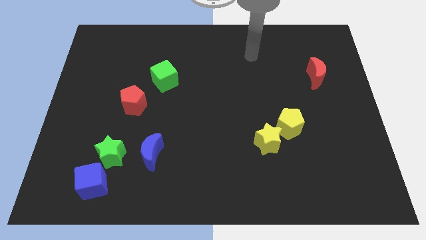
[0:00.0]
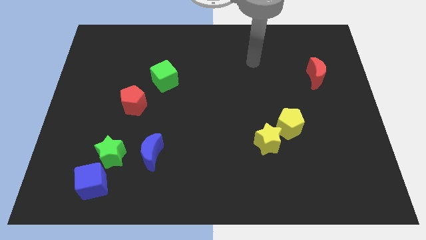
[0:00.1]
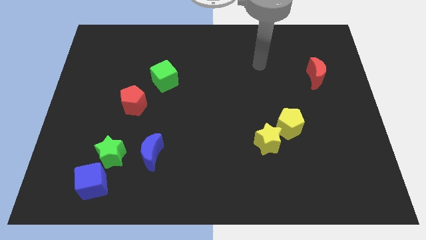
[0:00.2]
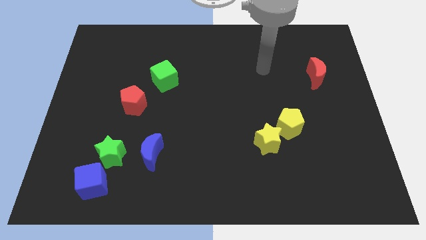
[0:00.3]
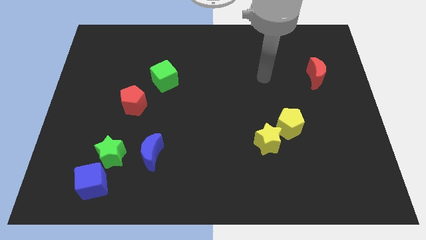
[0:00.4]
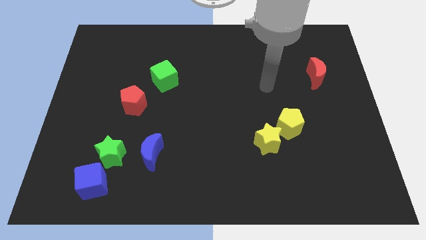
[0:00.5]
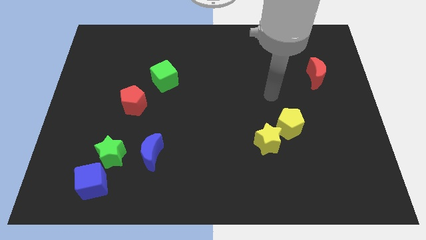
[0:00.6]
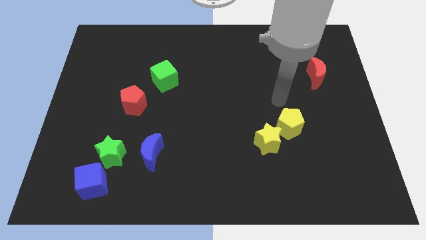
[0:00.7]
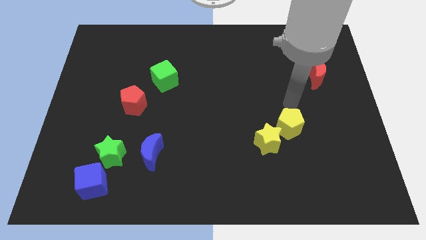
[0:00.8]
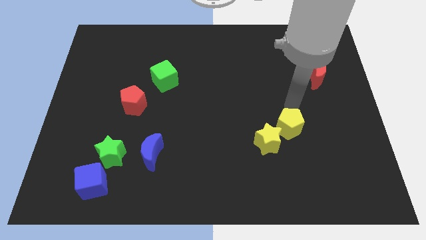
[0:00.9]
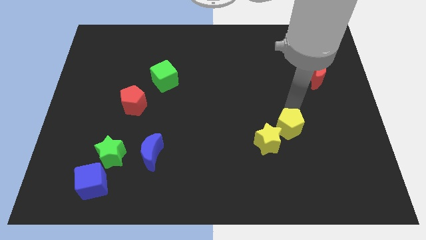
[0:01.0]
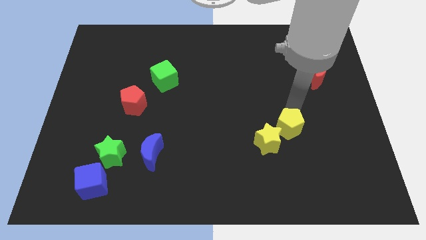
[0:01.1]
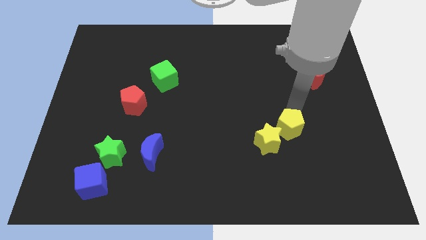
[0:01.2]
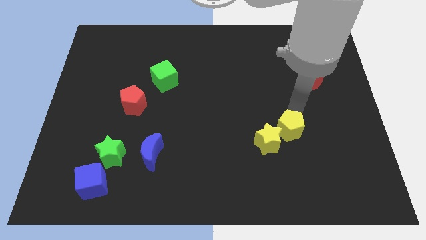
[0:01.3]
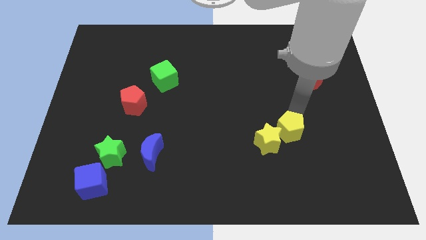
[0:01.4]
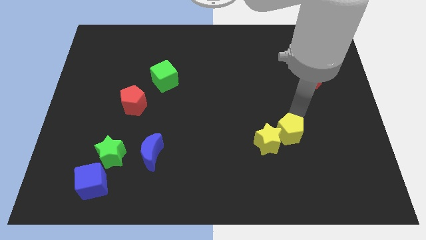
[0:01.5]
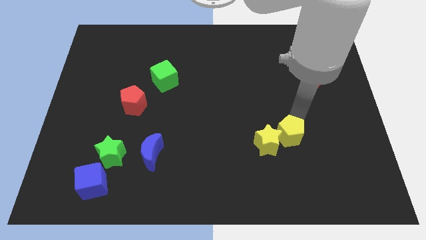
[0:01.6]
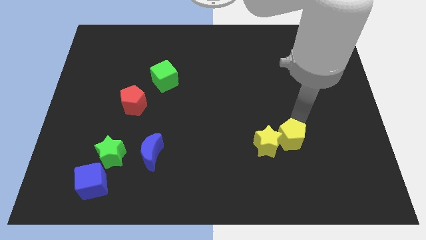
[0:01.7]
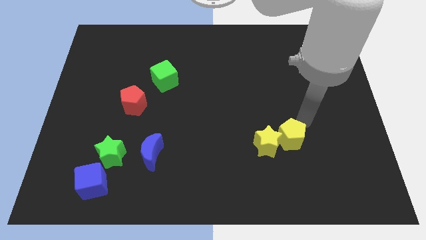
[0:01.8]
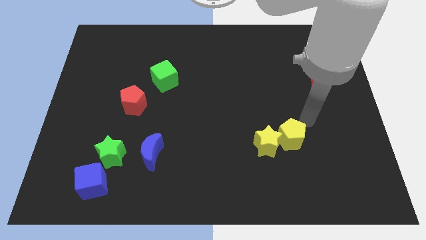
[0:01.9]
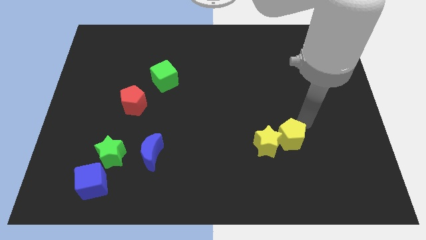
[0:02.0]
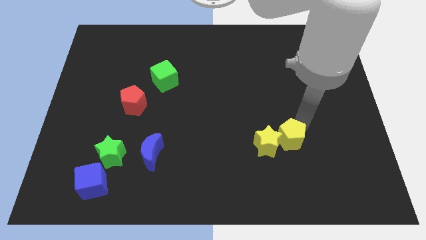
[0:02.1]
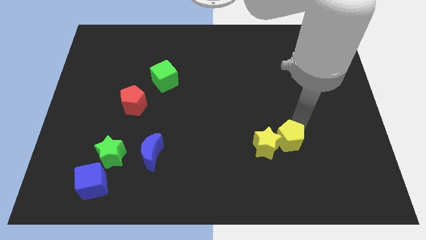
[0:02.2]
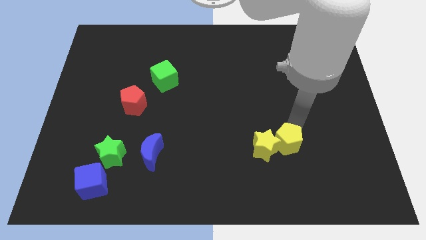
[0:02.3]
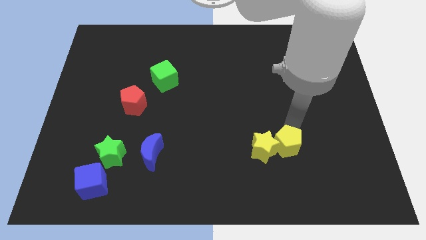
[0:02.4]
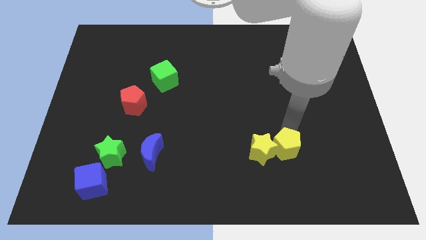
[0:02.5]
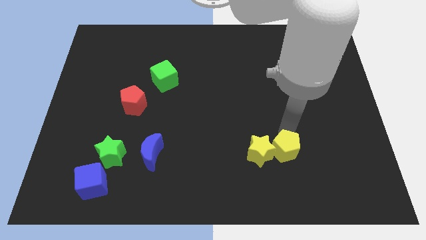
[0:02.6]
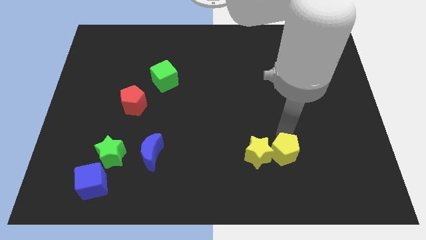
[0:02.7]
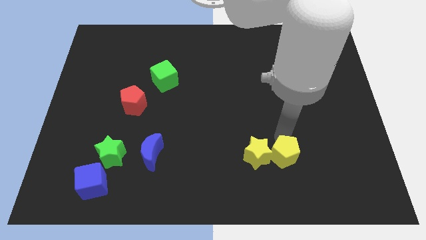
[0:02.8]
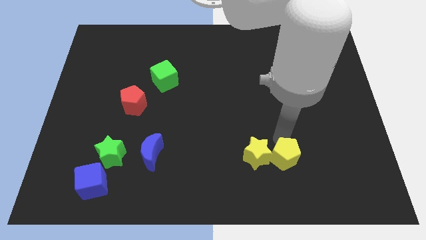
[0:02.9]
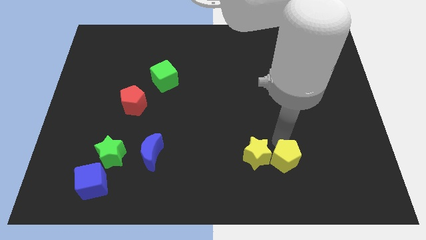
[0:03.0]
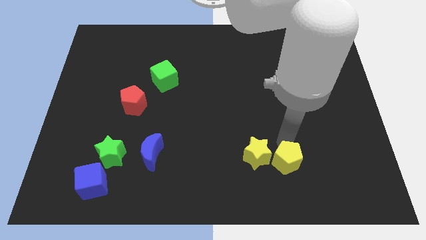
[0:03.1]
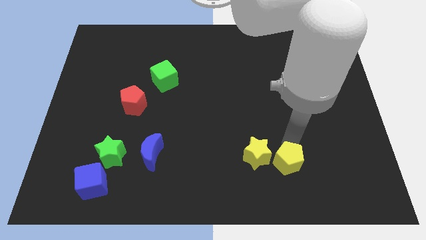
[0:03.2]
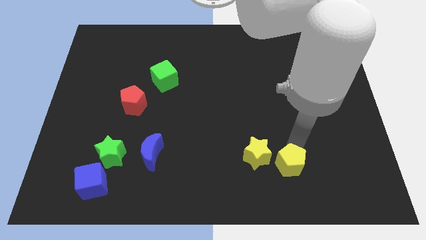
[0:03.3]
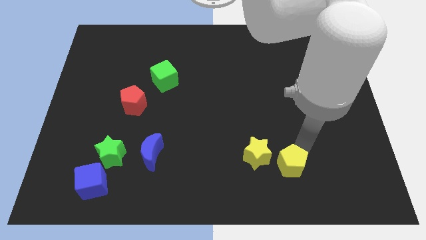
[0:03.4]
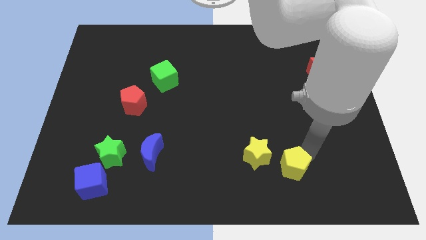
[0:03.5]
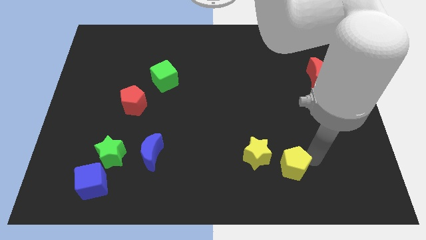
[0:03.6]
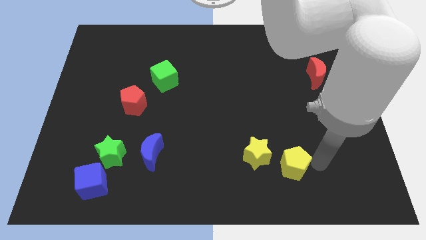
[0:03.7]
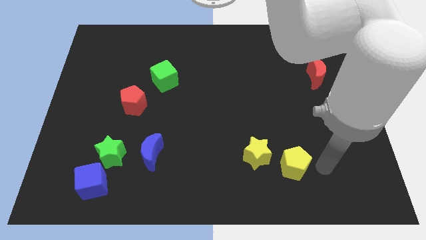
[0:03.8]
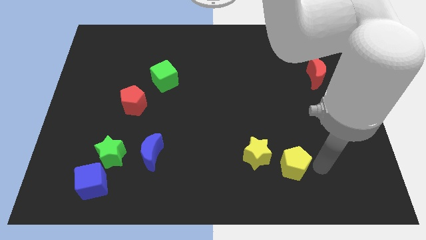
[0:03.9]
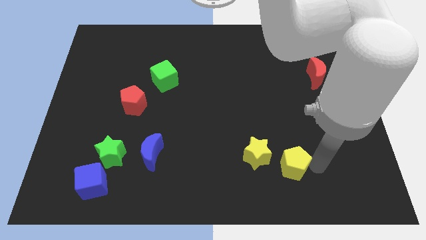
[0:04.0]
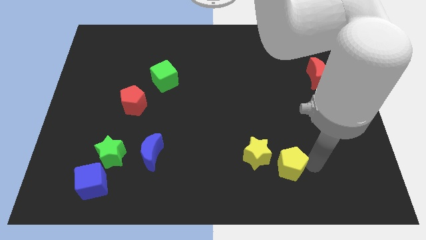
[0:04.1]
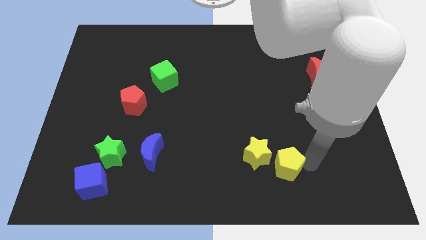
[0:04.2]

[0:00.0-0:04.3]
push the yellow pentagon slightly down and to the left

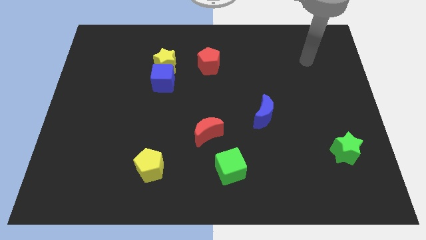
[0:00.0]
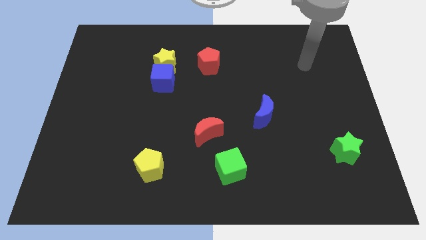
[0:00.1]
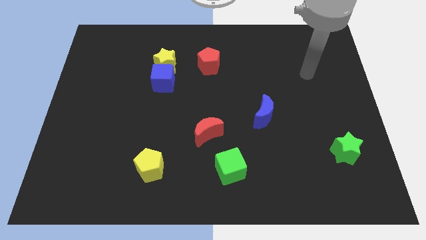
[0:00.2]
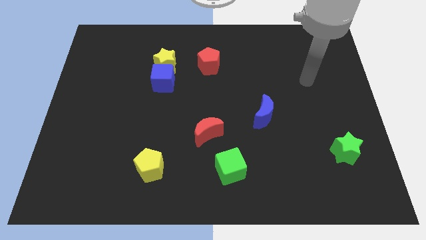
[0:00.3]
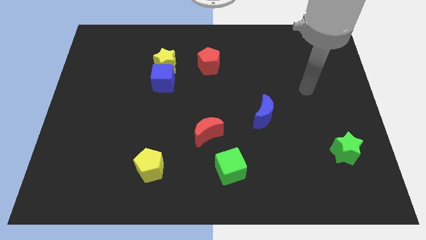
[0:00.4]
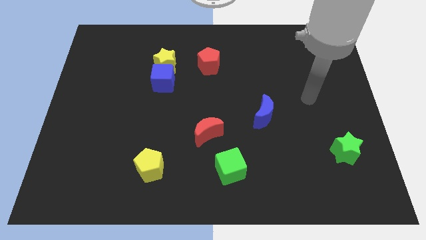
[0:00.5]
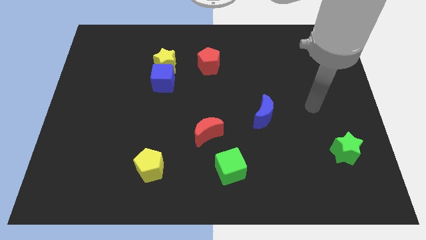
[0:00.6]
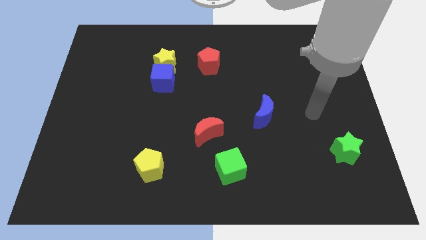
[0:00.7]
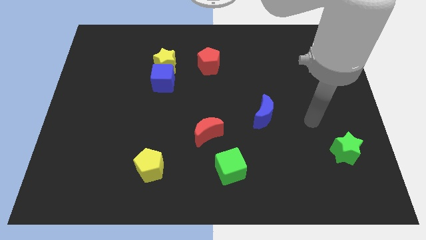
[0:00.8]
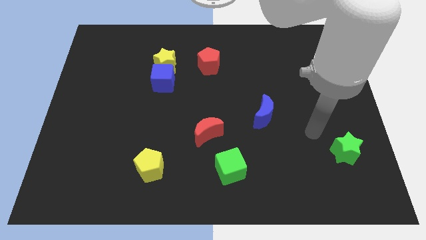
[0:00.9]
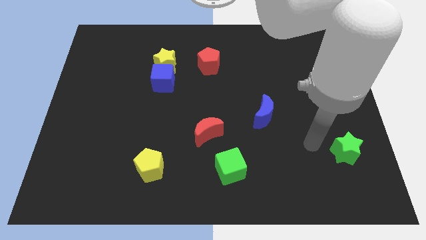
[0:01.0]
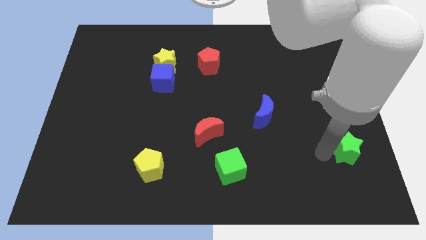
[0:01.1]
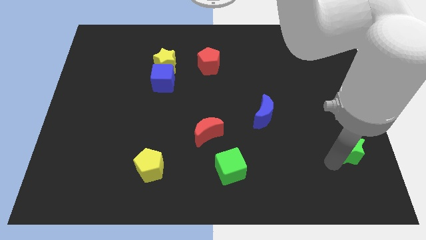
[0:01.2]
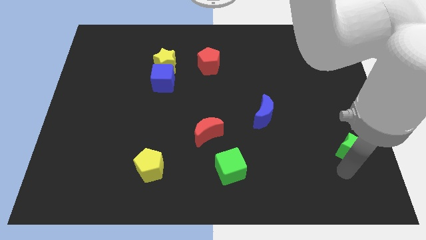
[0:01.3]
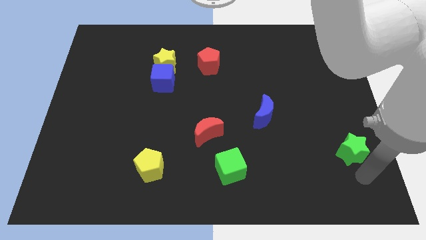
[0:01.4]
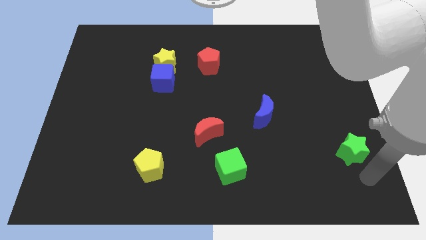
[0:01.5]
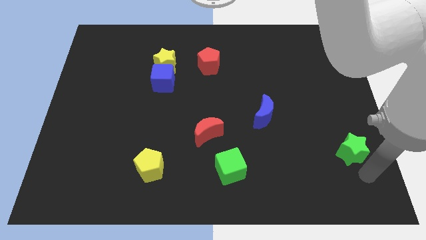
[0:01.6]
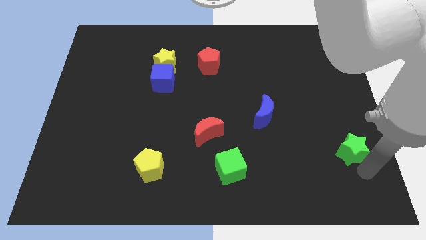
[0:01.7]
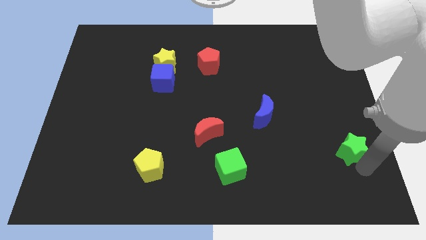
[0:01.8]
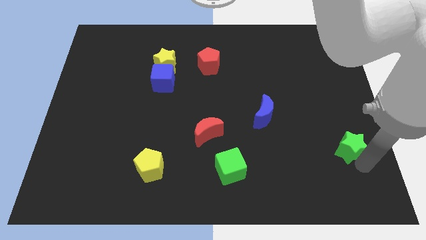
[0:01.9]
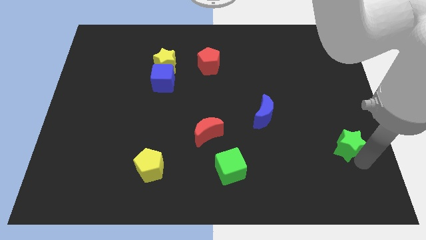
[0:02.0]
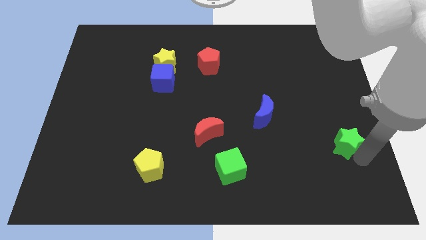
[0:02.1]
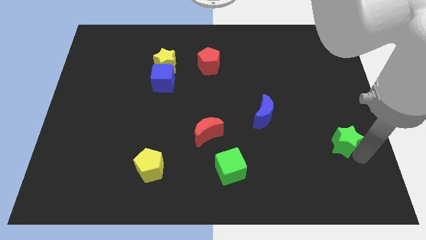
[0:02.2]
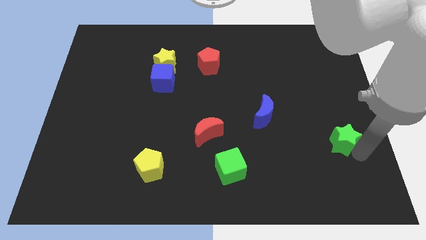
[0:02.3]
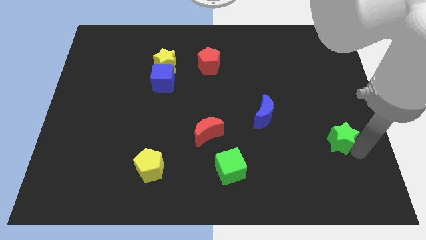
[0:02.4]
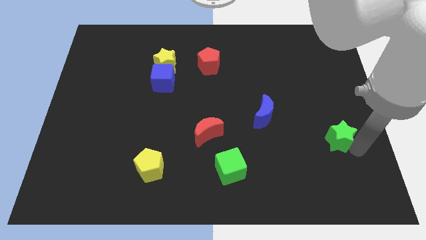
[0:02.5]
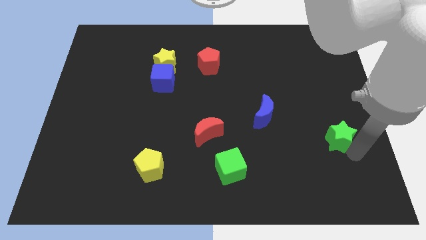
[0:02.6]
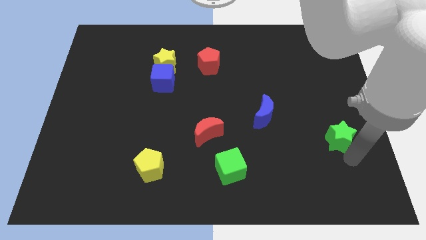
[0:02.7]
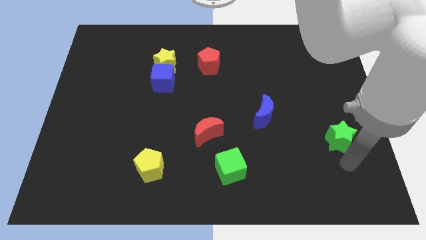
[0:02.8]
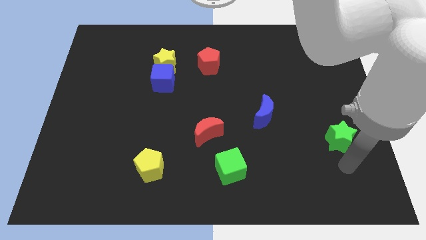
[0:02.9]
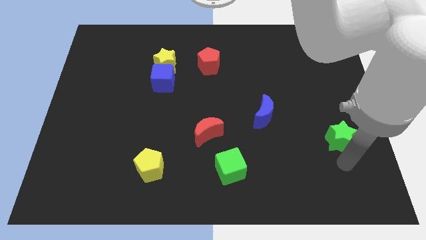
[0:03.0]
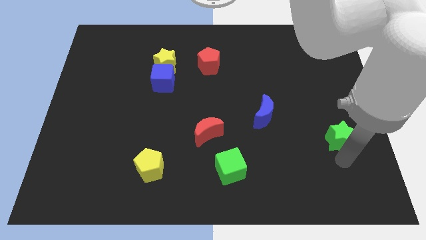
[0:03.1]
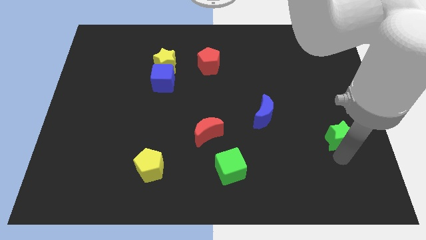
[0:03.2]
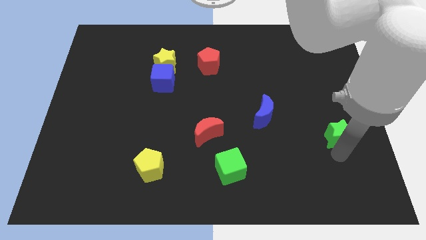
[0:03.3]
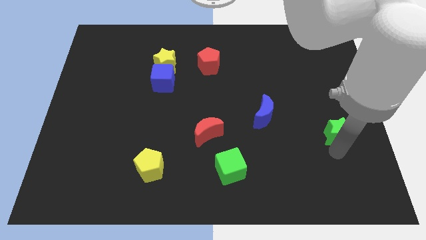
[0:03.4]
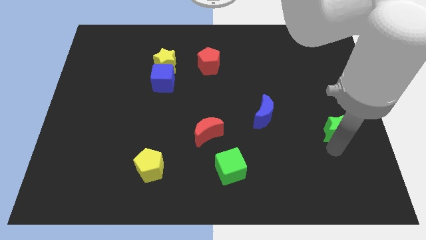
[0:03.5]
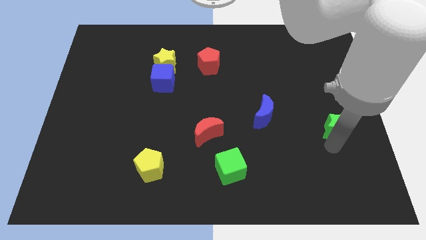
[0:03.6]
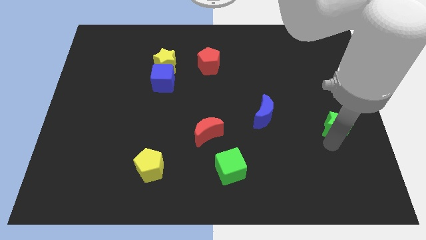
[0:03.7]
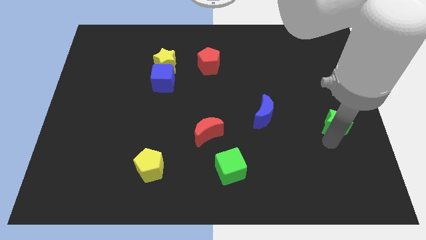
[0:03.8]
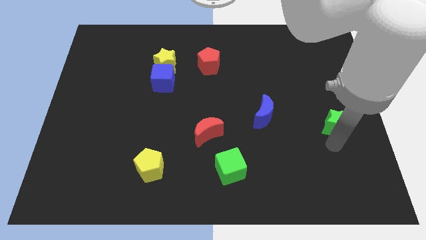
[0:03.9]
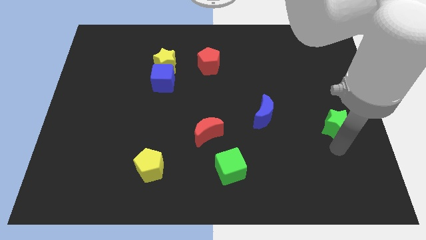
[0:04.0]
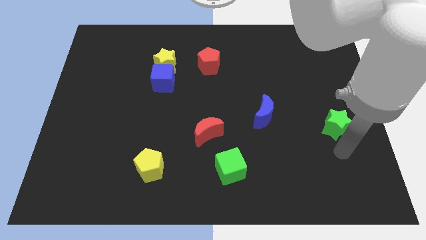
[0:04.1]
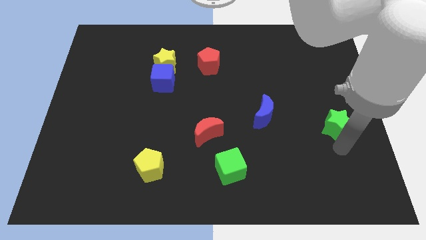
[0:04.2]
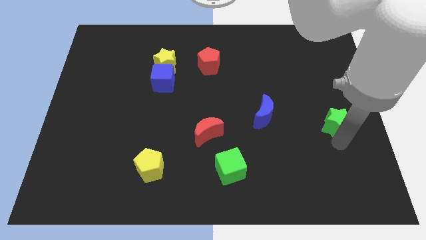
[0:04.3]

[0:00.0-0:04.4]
slide the green star a little bit up
